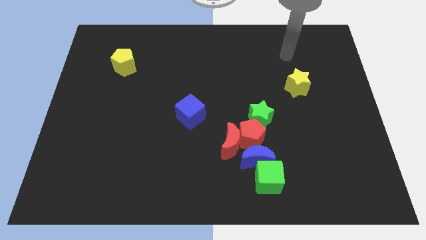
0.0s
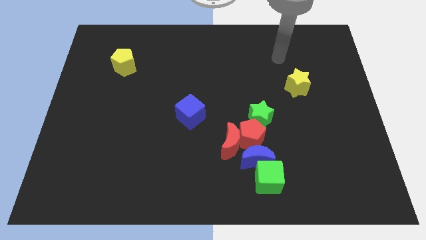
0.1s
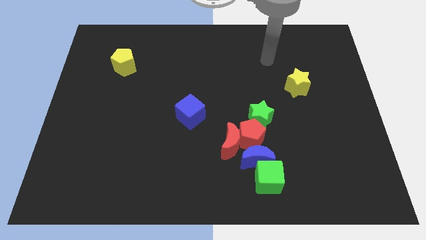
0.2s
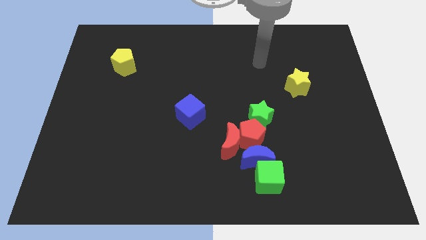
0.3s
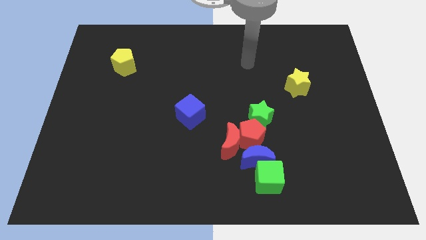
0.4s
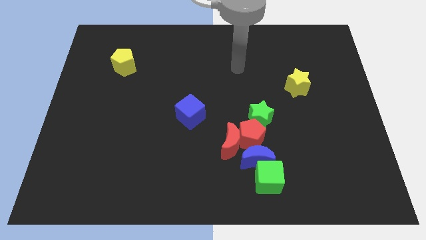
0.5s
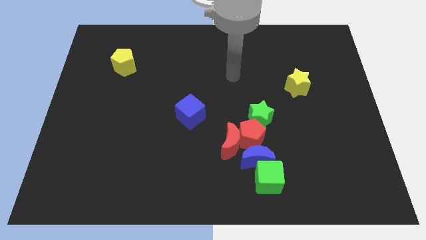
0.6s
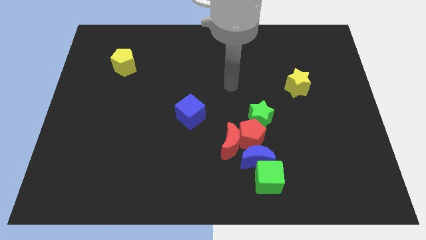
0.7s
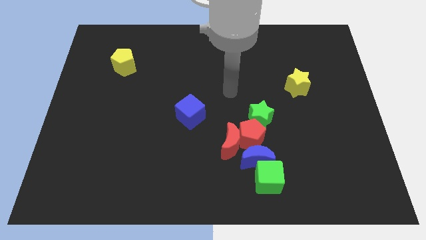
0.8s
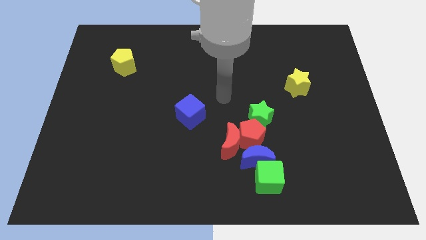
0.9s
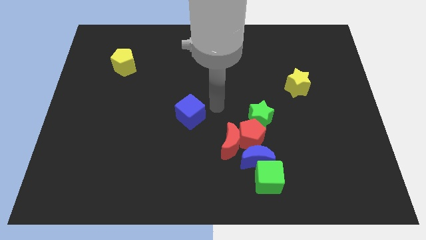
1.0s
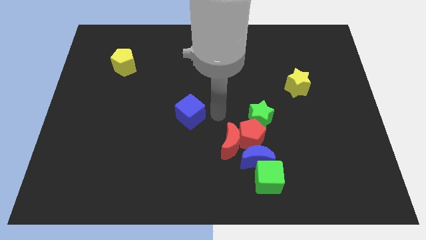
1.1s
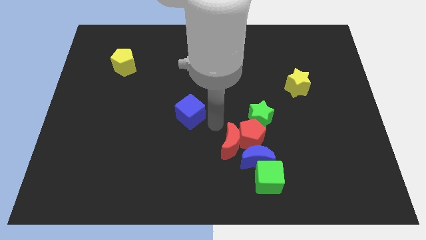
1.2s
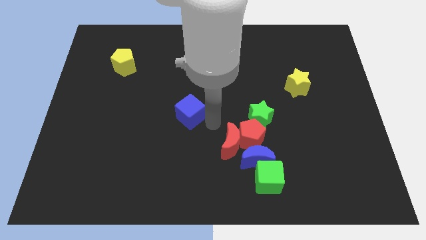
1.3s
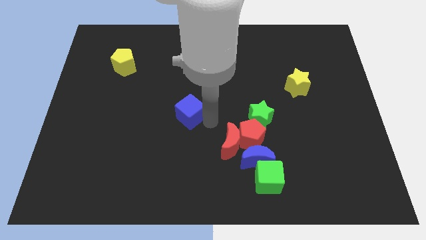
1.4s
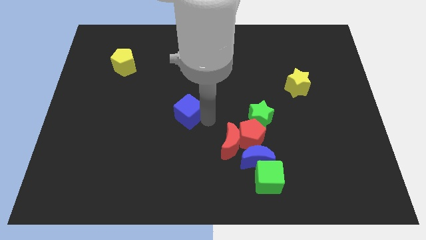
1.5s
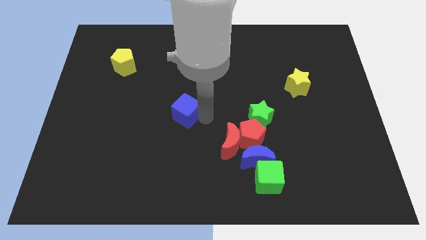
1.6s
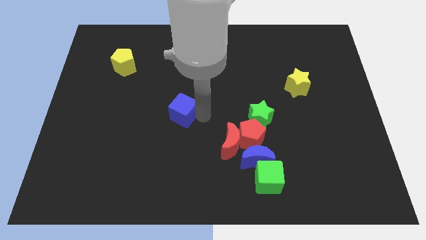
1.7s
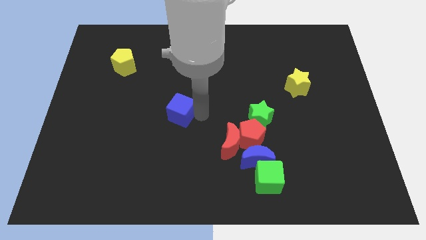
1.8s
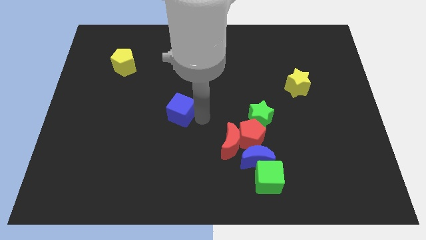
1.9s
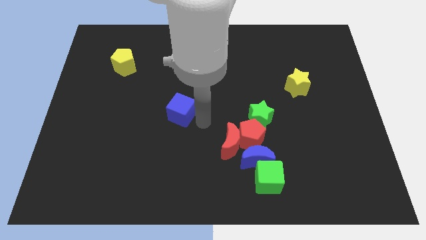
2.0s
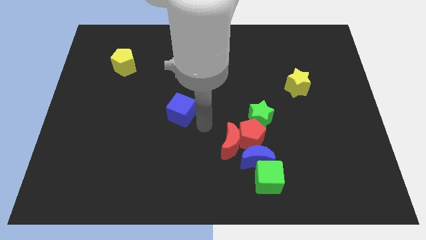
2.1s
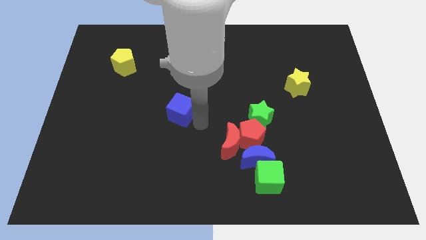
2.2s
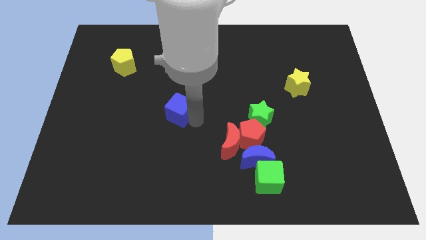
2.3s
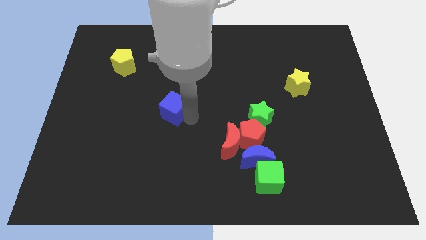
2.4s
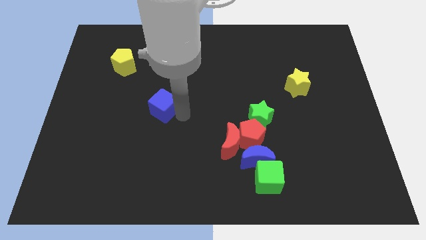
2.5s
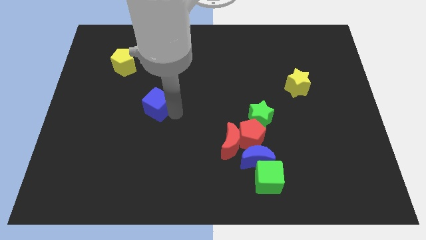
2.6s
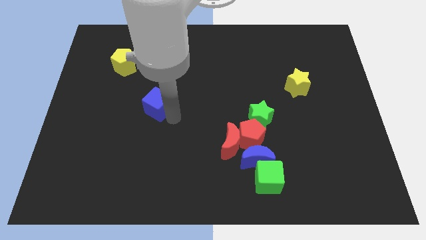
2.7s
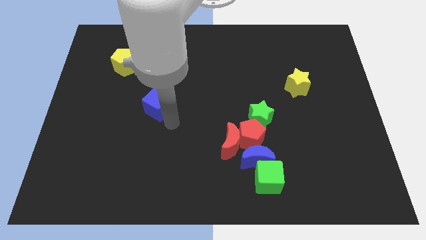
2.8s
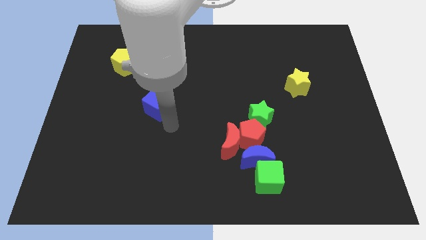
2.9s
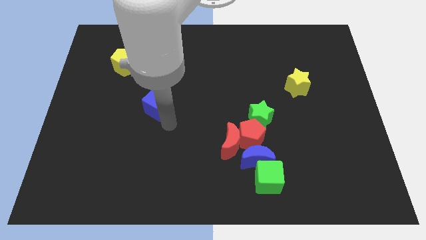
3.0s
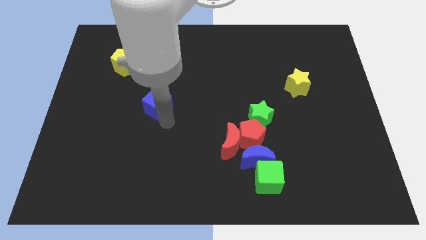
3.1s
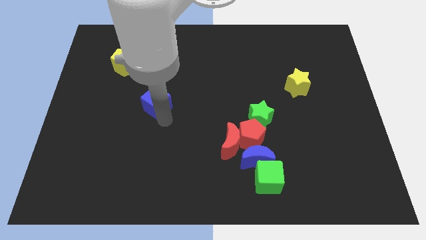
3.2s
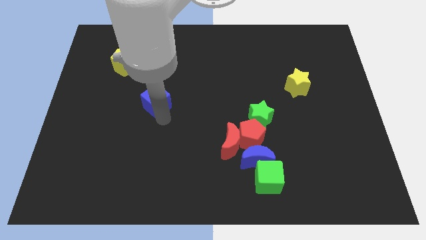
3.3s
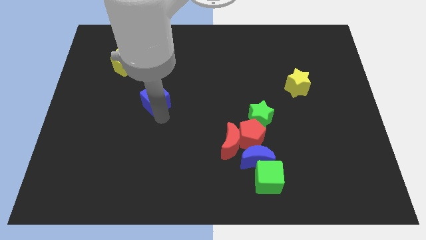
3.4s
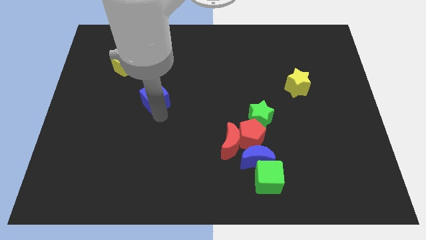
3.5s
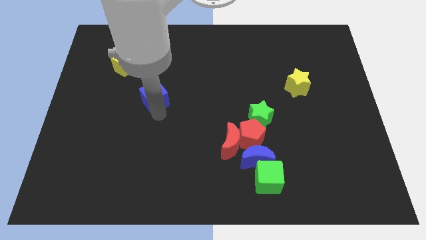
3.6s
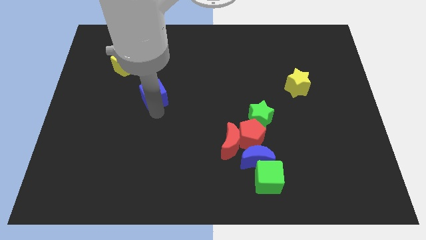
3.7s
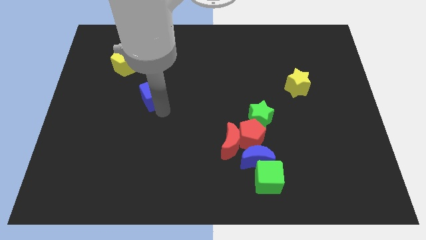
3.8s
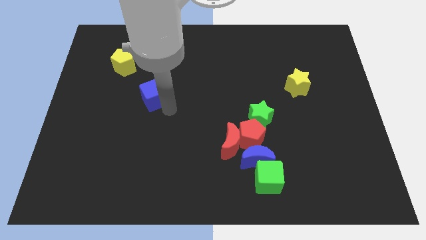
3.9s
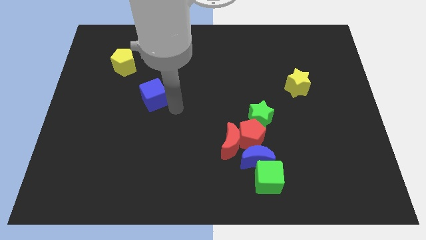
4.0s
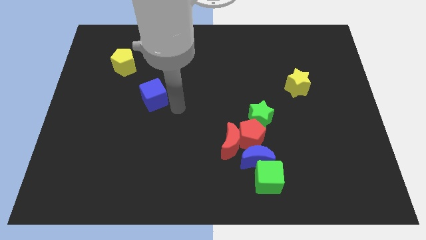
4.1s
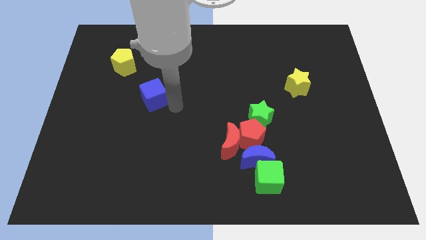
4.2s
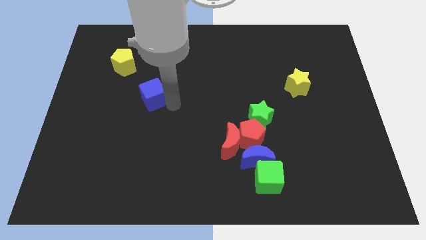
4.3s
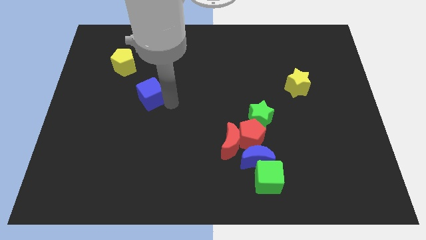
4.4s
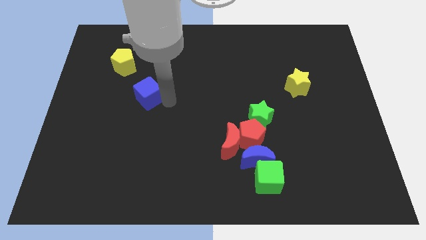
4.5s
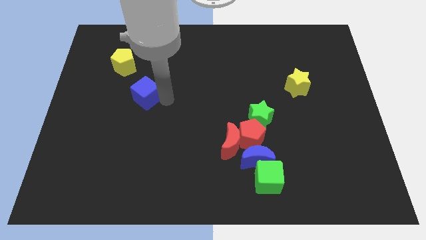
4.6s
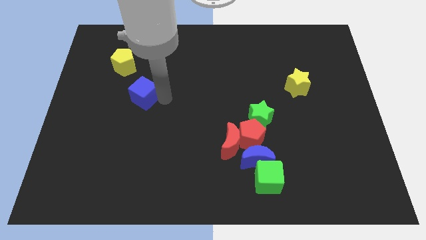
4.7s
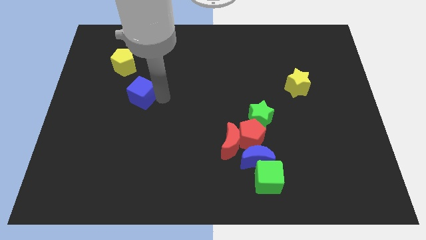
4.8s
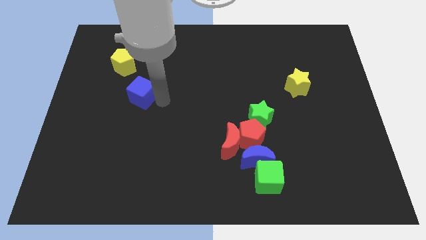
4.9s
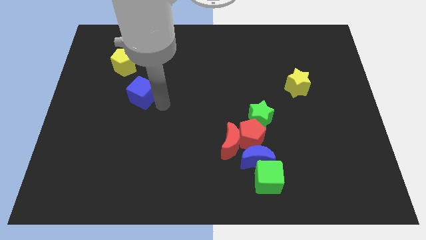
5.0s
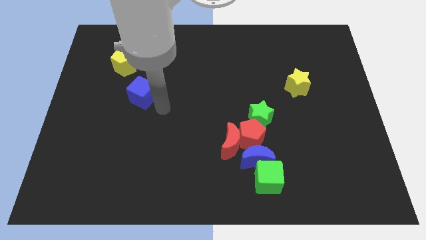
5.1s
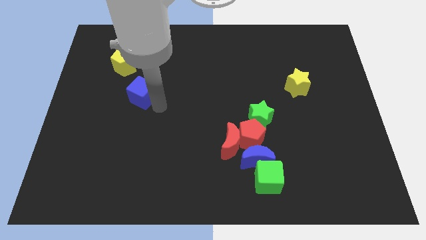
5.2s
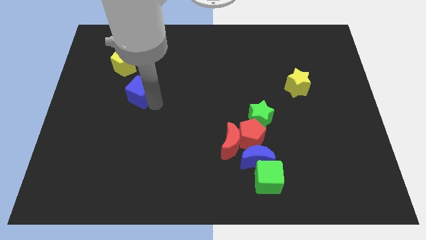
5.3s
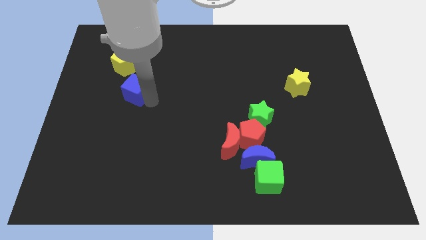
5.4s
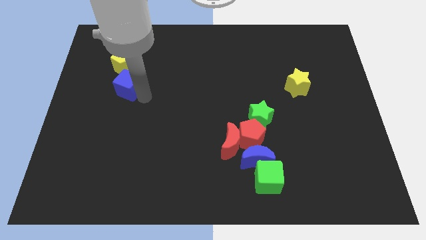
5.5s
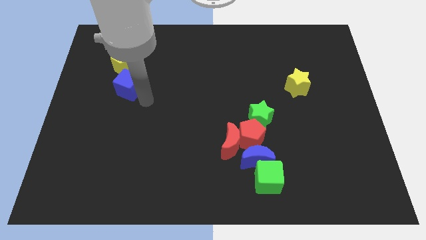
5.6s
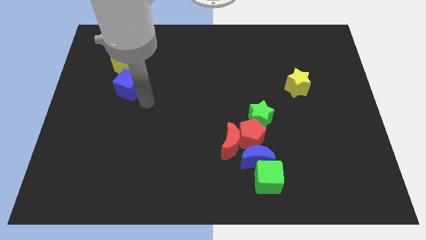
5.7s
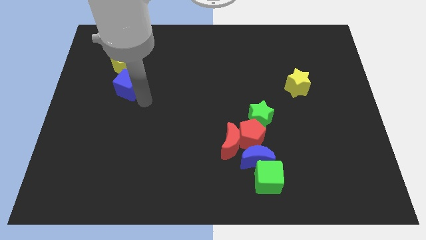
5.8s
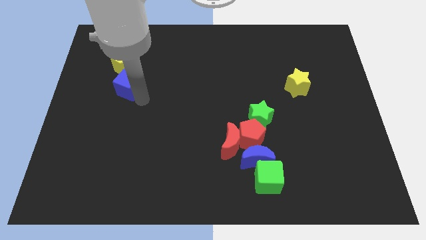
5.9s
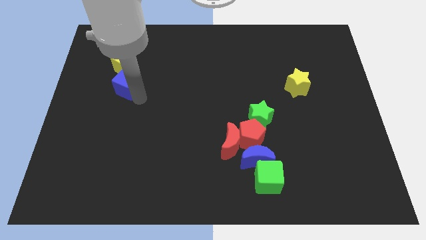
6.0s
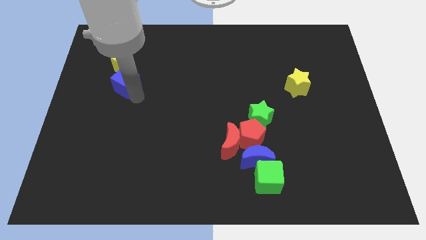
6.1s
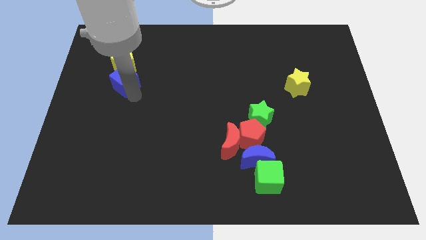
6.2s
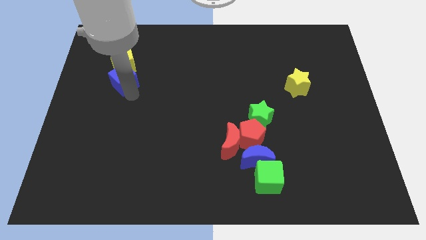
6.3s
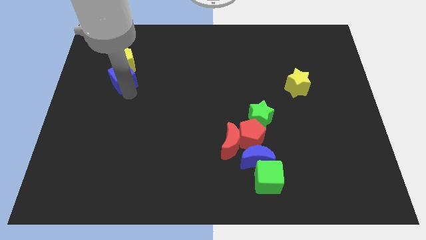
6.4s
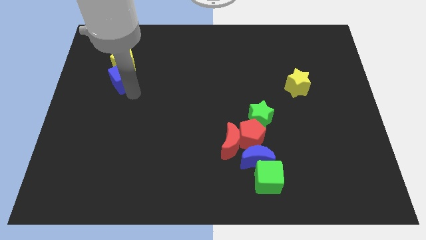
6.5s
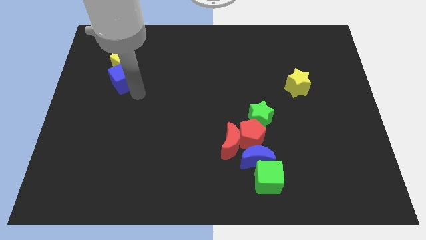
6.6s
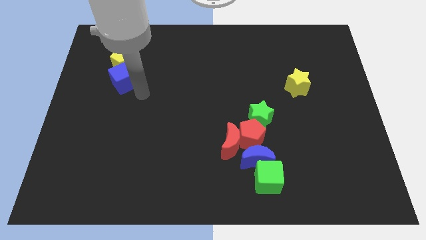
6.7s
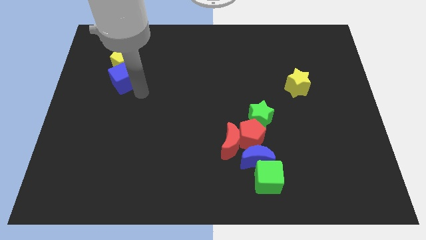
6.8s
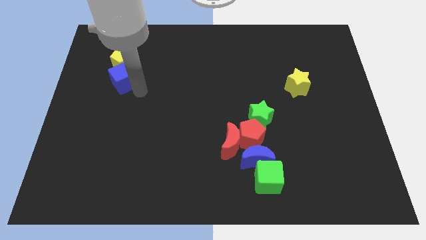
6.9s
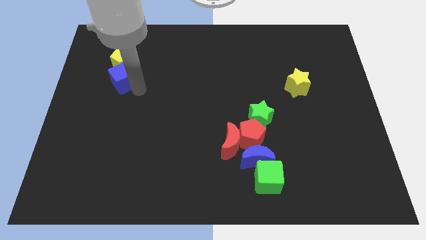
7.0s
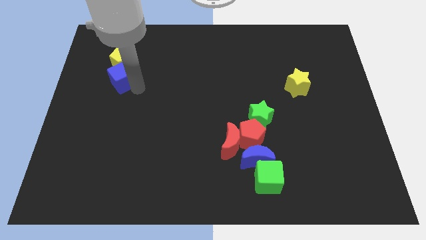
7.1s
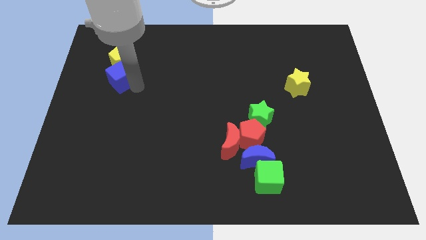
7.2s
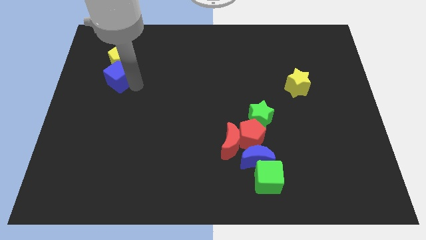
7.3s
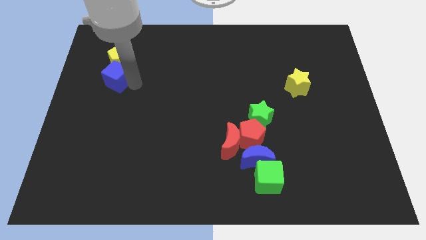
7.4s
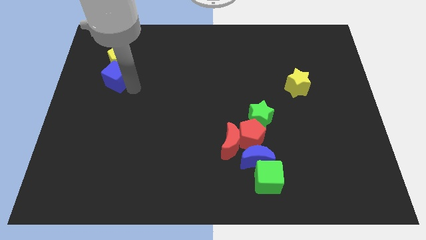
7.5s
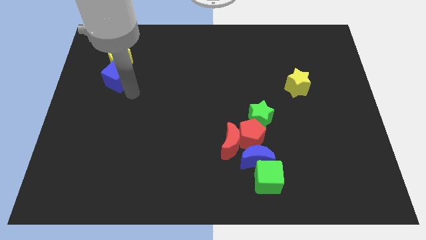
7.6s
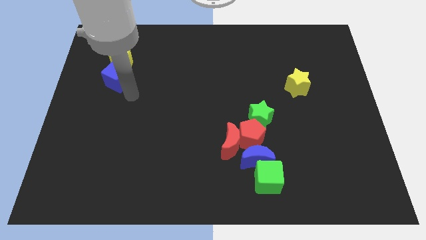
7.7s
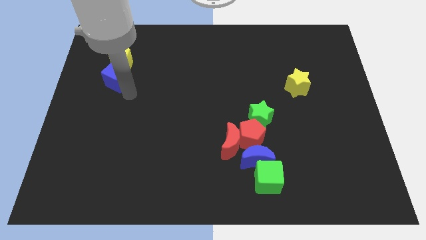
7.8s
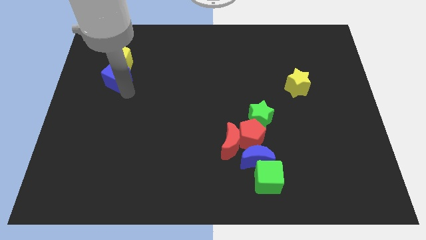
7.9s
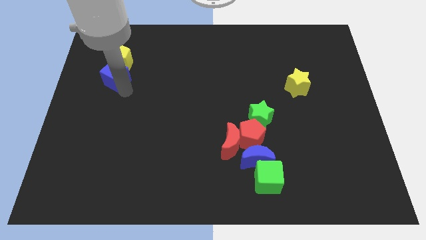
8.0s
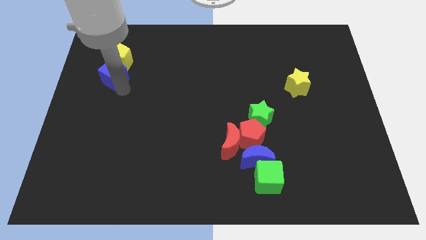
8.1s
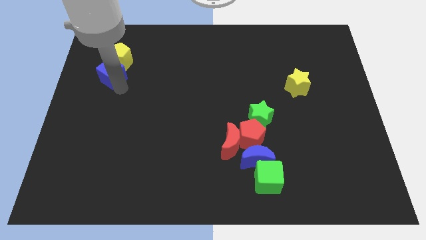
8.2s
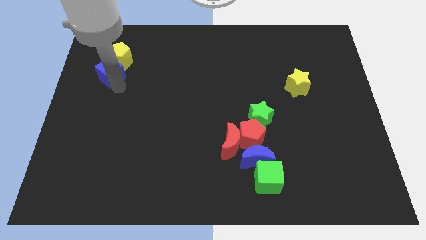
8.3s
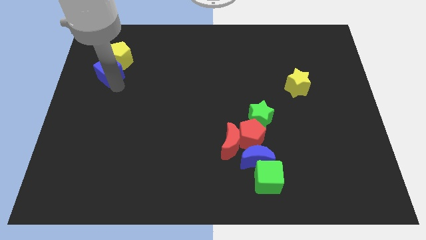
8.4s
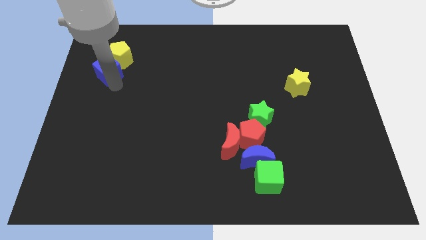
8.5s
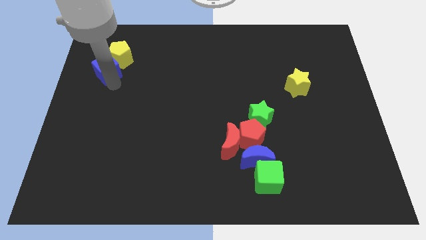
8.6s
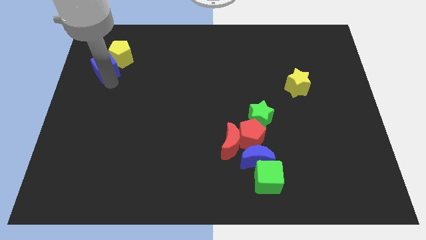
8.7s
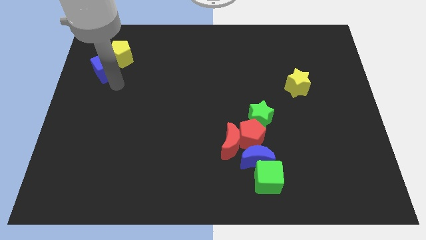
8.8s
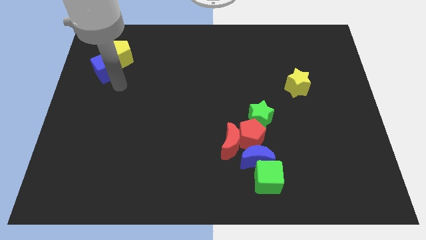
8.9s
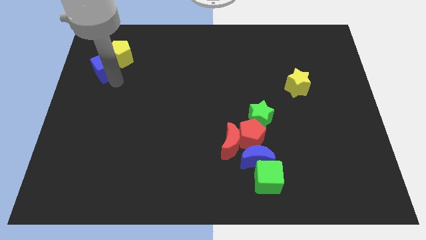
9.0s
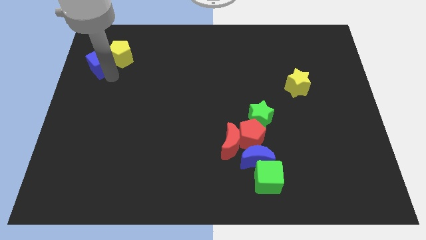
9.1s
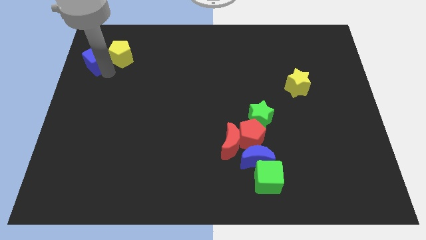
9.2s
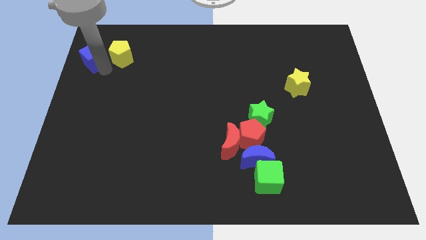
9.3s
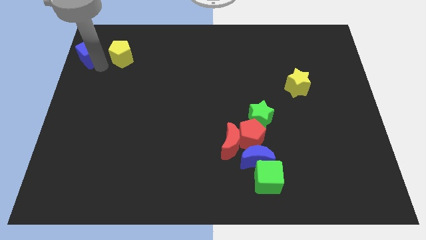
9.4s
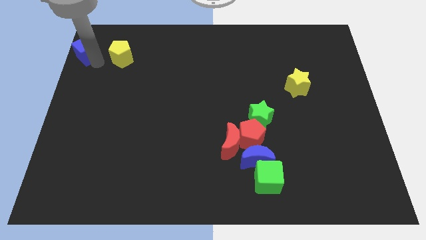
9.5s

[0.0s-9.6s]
put the blue cube to the top left of the board
